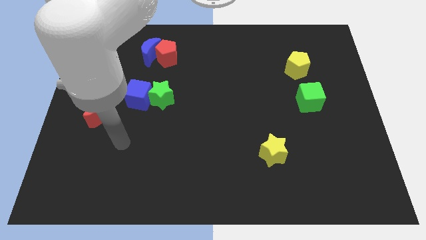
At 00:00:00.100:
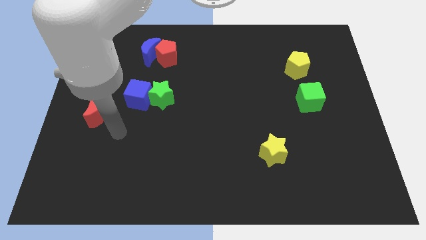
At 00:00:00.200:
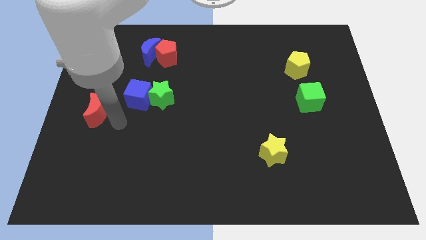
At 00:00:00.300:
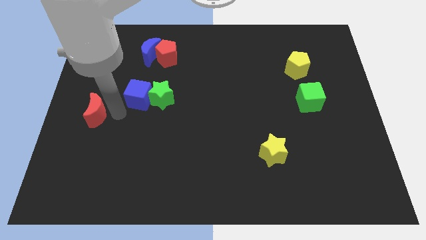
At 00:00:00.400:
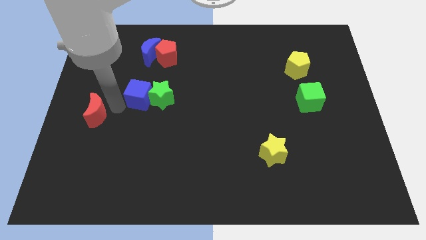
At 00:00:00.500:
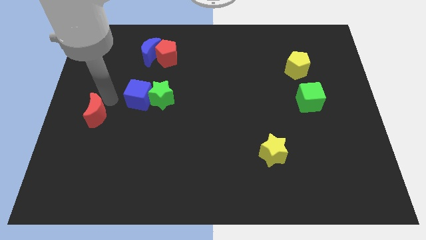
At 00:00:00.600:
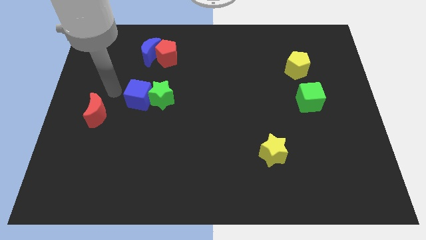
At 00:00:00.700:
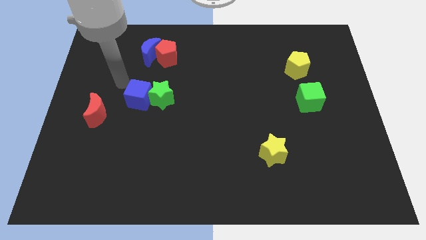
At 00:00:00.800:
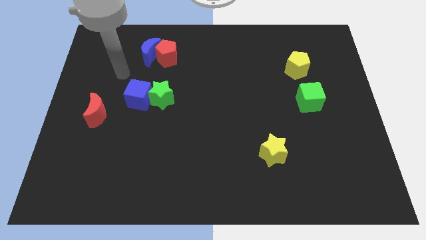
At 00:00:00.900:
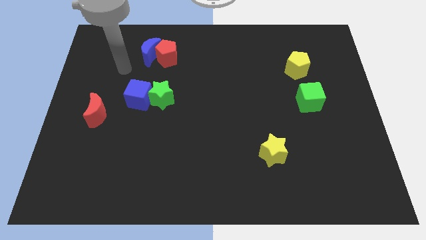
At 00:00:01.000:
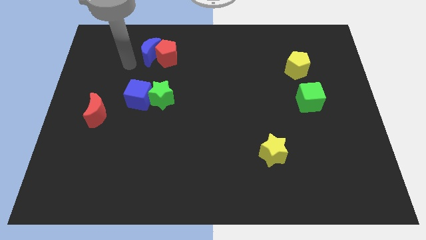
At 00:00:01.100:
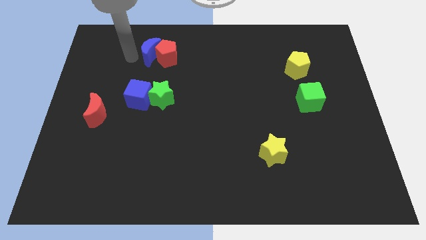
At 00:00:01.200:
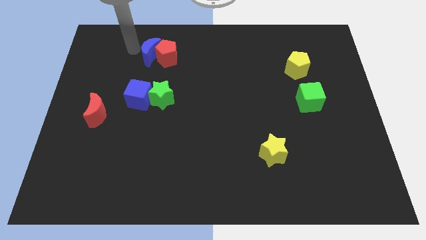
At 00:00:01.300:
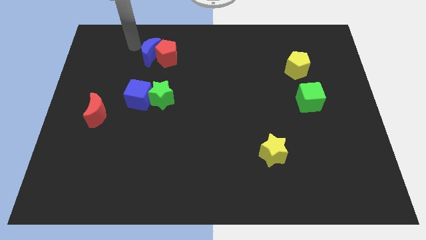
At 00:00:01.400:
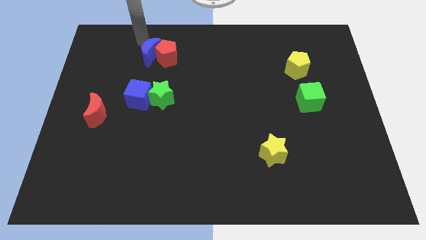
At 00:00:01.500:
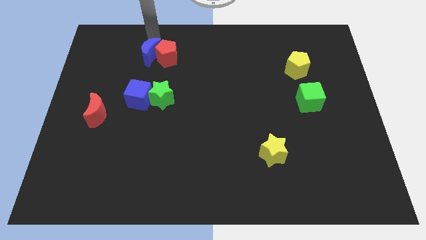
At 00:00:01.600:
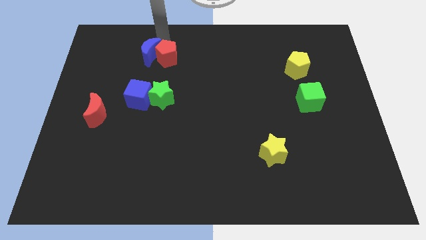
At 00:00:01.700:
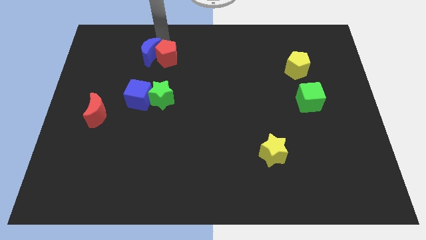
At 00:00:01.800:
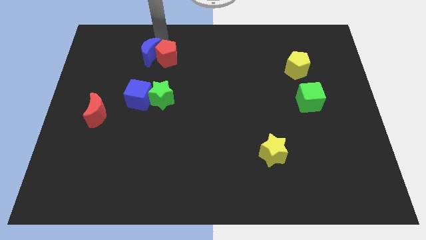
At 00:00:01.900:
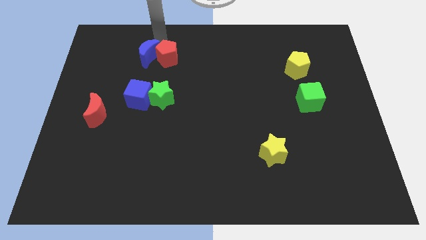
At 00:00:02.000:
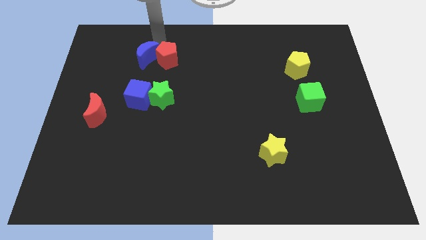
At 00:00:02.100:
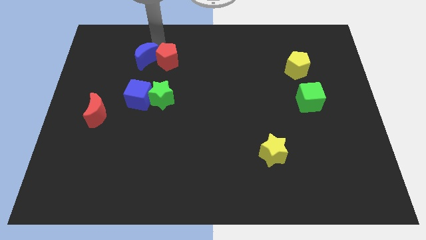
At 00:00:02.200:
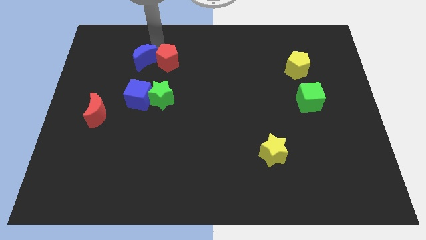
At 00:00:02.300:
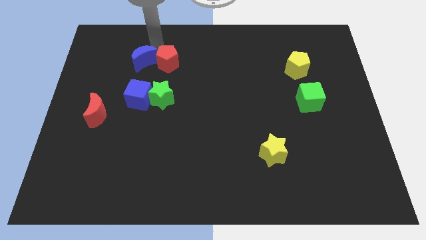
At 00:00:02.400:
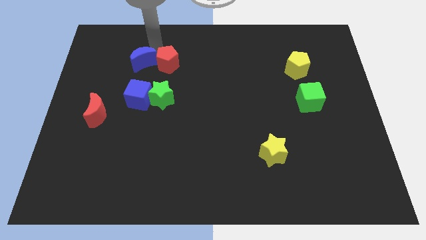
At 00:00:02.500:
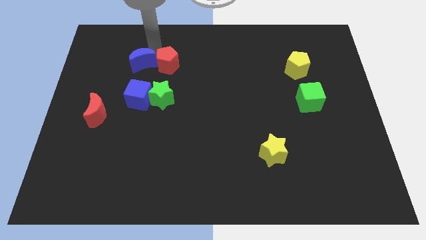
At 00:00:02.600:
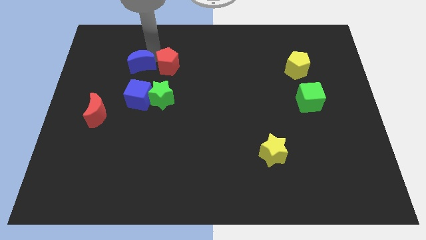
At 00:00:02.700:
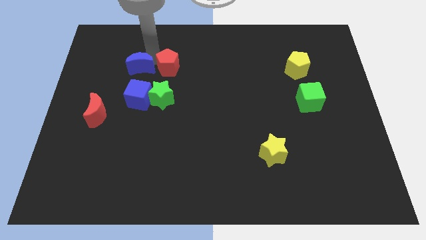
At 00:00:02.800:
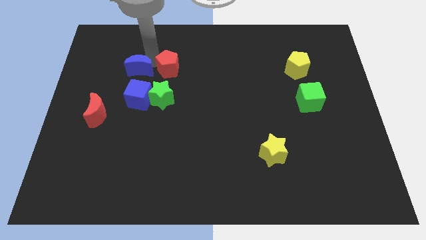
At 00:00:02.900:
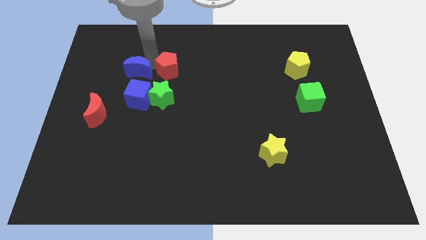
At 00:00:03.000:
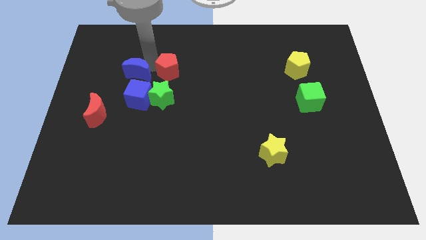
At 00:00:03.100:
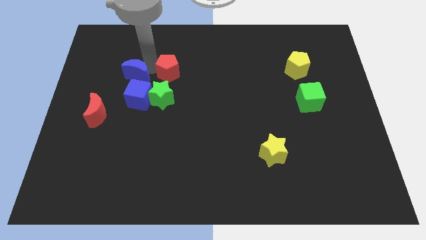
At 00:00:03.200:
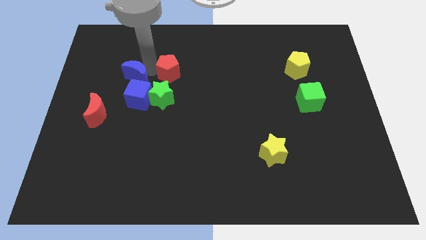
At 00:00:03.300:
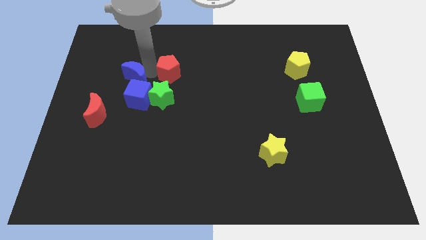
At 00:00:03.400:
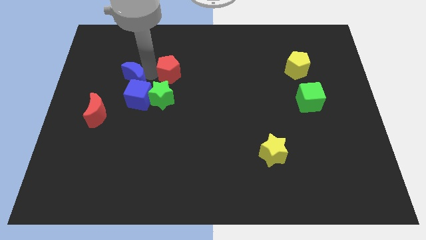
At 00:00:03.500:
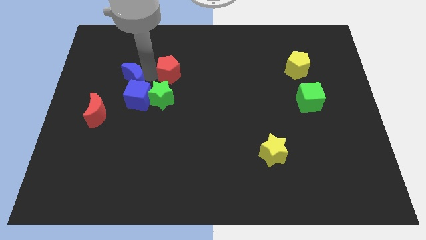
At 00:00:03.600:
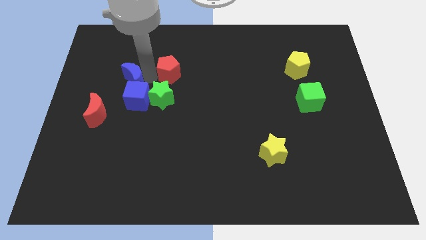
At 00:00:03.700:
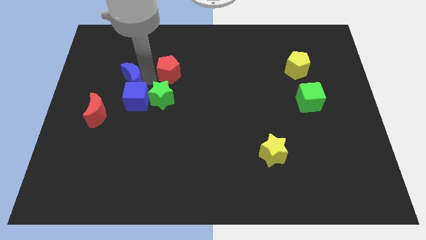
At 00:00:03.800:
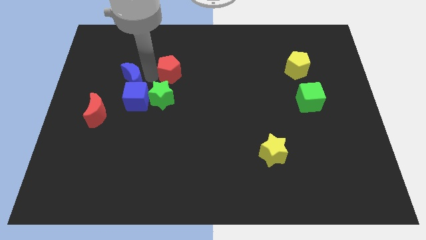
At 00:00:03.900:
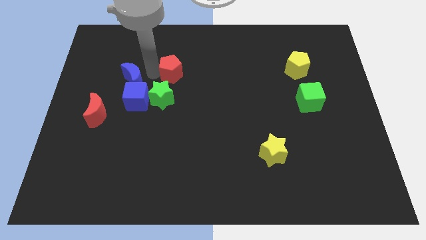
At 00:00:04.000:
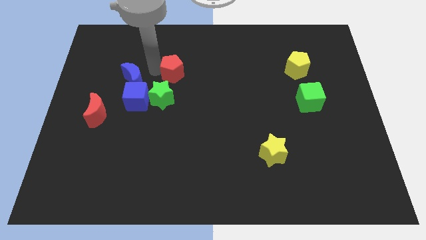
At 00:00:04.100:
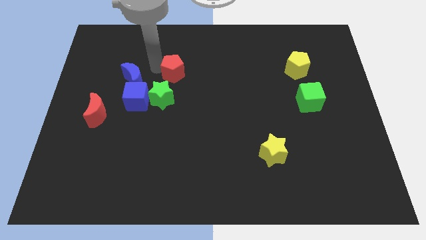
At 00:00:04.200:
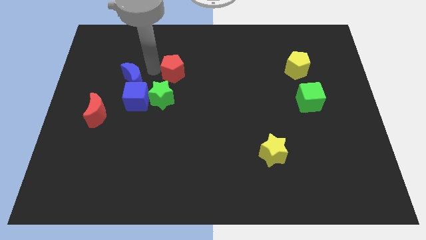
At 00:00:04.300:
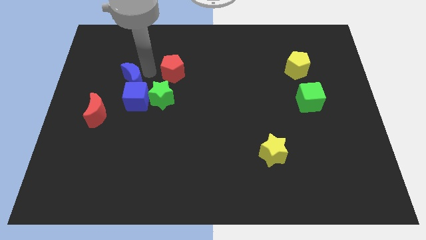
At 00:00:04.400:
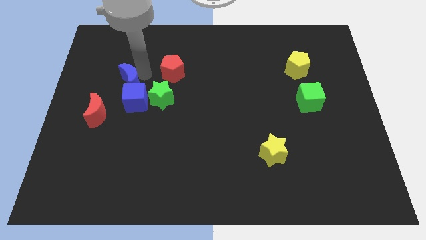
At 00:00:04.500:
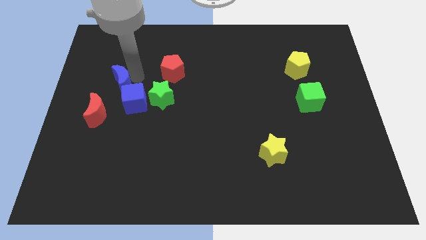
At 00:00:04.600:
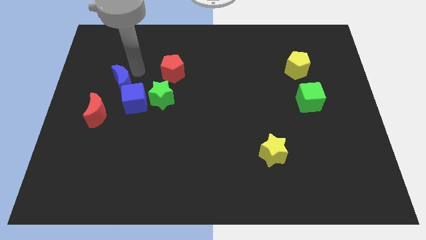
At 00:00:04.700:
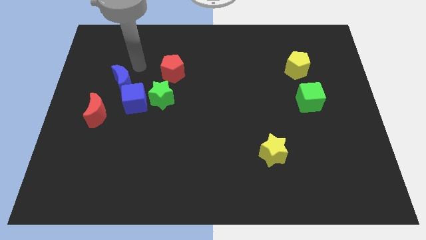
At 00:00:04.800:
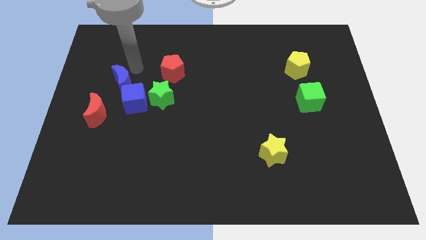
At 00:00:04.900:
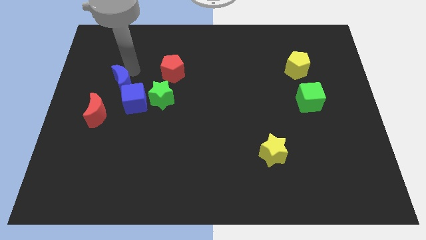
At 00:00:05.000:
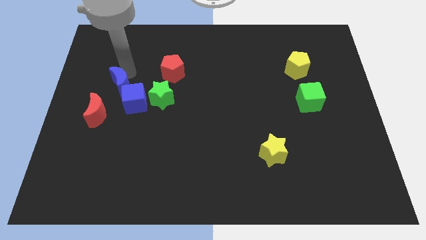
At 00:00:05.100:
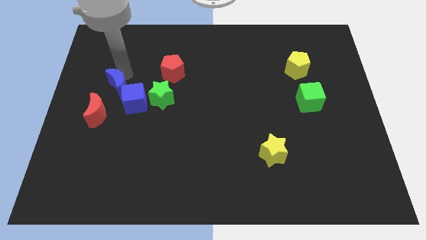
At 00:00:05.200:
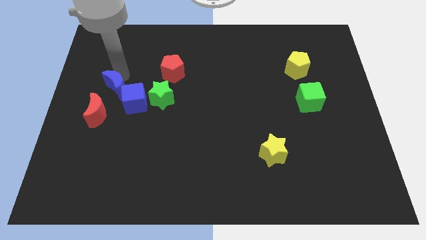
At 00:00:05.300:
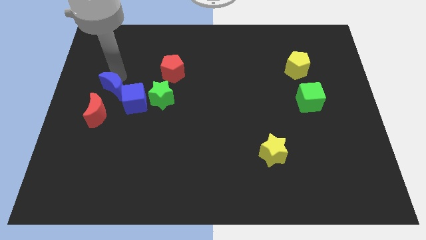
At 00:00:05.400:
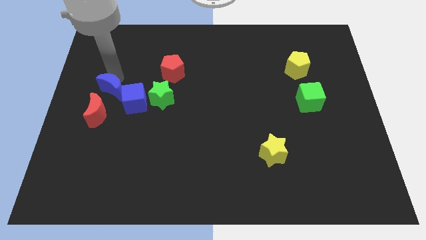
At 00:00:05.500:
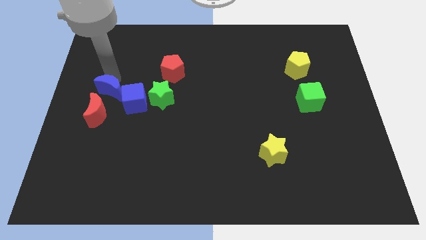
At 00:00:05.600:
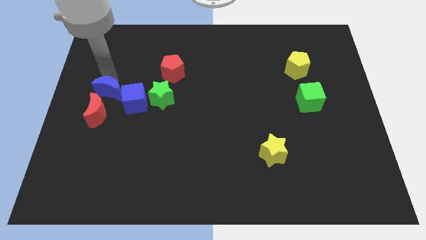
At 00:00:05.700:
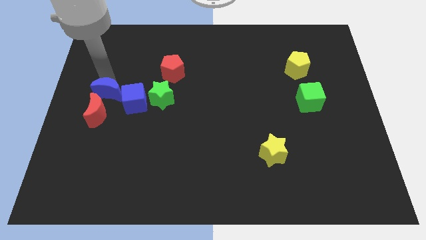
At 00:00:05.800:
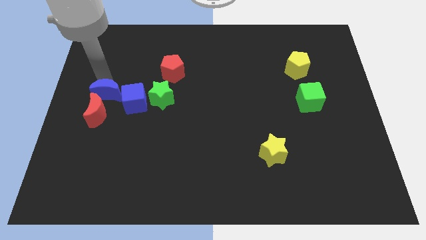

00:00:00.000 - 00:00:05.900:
move the blue moon to the red moon

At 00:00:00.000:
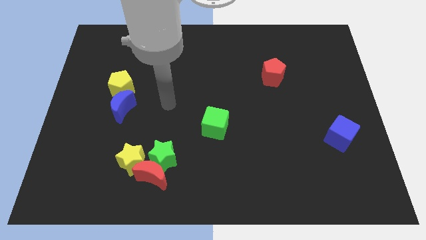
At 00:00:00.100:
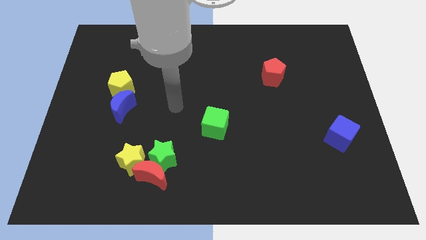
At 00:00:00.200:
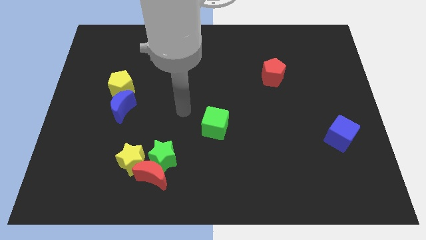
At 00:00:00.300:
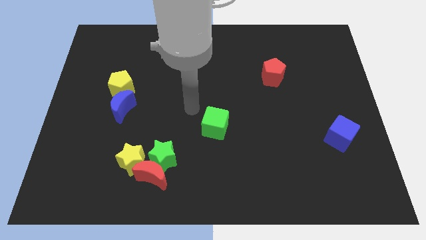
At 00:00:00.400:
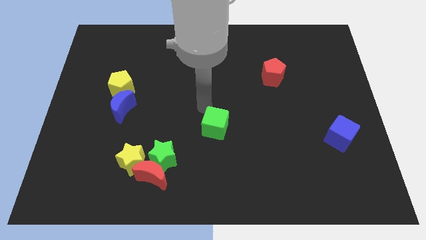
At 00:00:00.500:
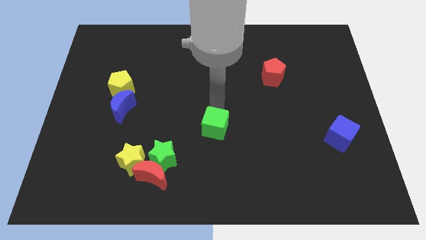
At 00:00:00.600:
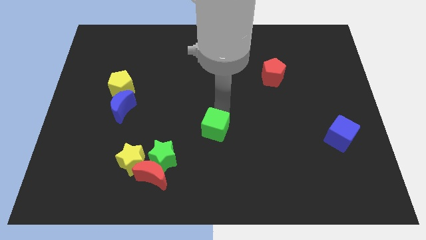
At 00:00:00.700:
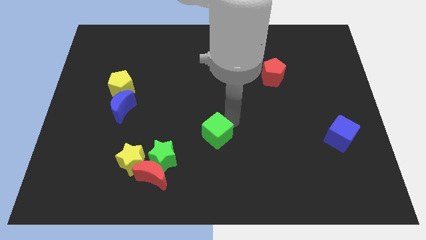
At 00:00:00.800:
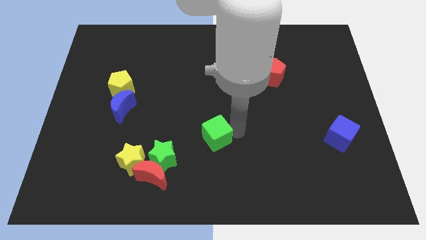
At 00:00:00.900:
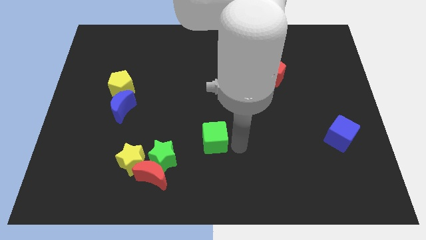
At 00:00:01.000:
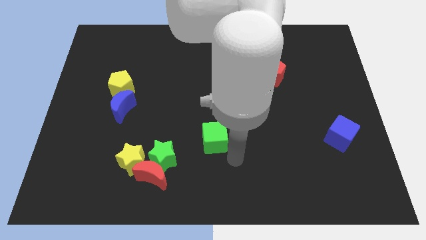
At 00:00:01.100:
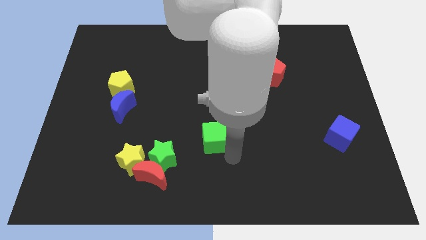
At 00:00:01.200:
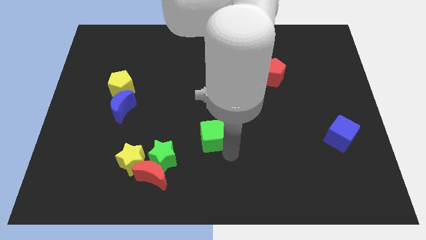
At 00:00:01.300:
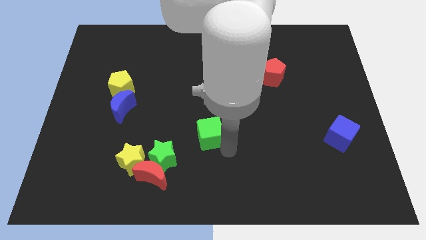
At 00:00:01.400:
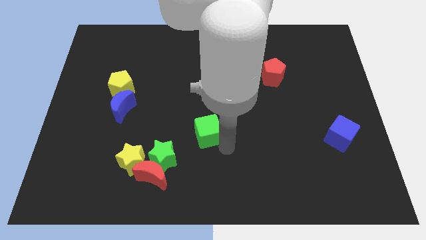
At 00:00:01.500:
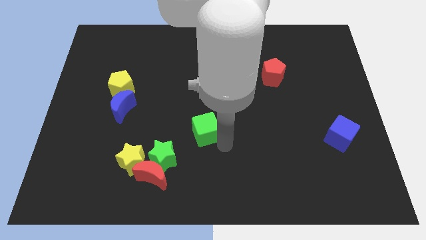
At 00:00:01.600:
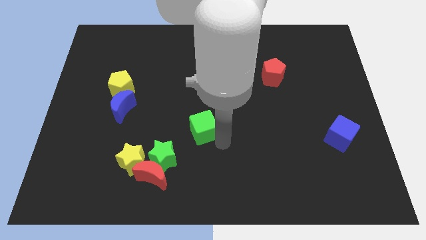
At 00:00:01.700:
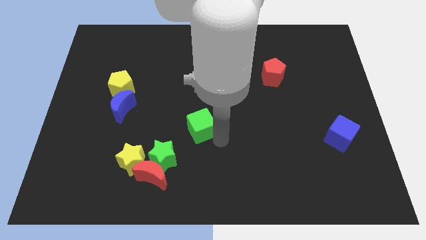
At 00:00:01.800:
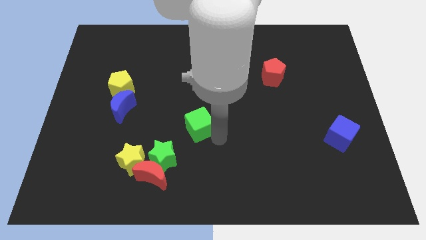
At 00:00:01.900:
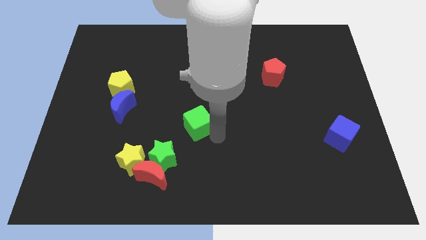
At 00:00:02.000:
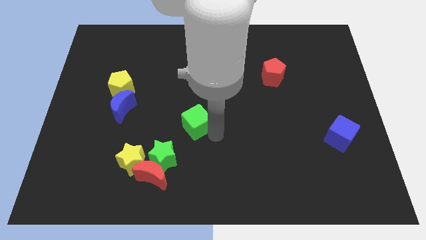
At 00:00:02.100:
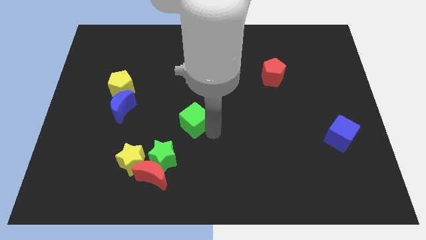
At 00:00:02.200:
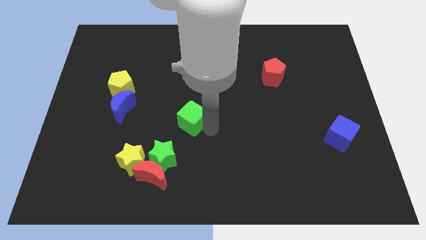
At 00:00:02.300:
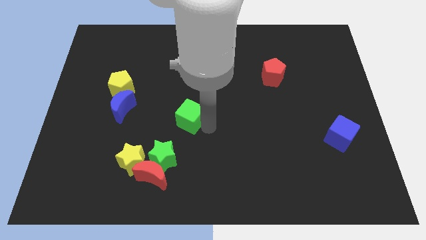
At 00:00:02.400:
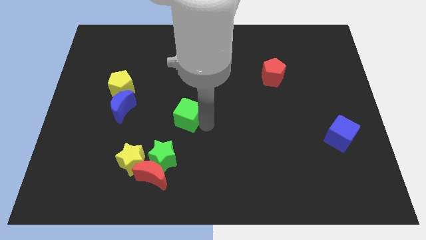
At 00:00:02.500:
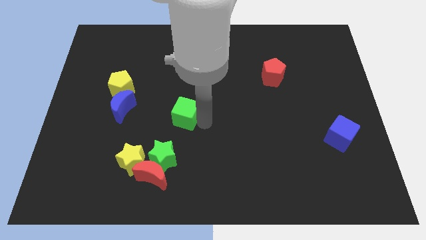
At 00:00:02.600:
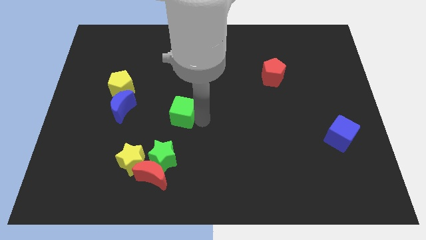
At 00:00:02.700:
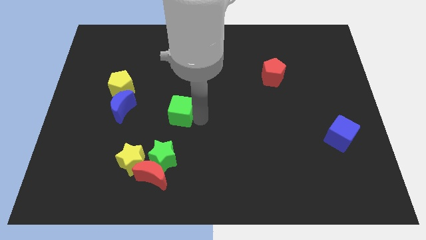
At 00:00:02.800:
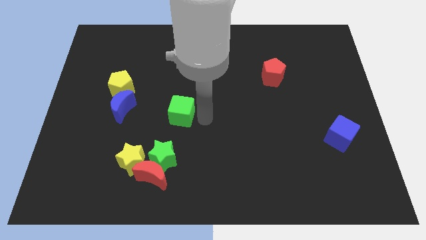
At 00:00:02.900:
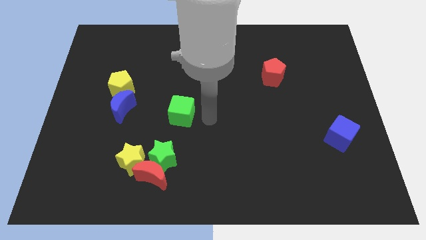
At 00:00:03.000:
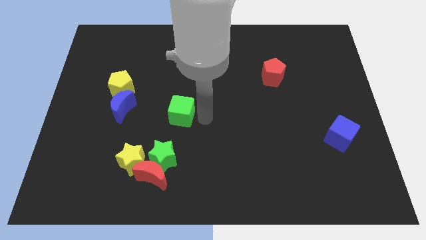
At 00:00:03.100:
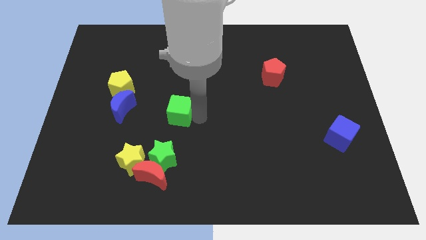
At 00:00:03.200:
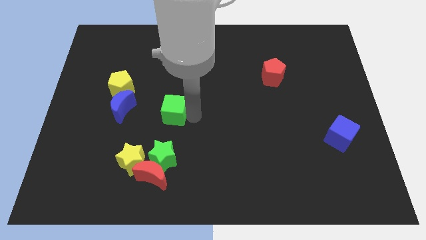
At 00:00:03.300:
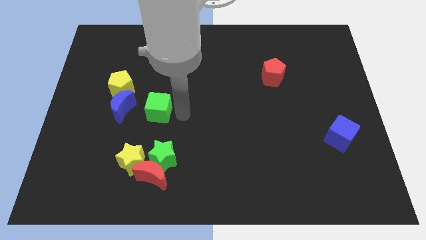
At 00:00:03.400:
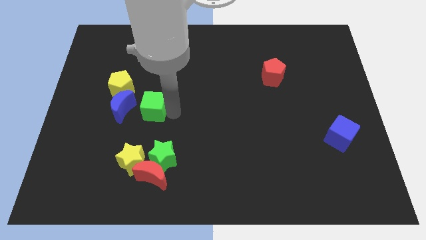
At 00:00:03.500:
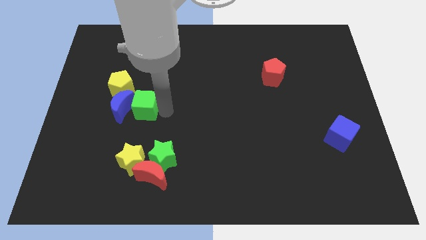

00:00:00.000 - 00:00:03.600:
push the green cube towards the blue moon
